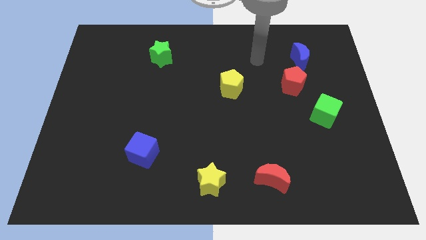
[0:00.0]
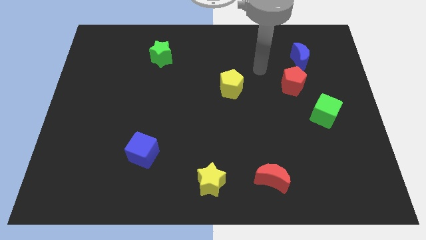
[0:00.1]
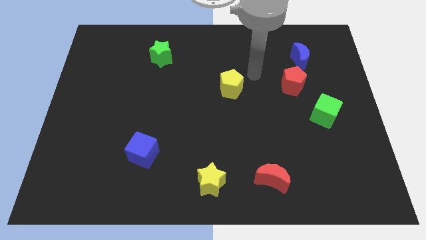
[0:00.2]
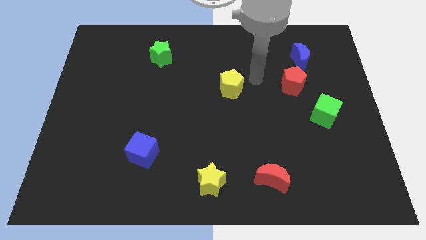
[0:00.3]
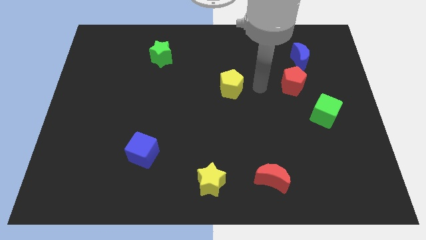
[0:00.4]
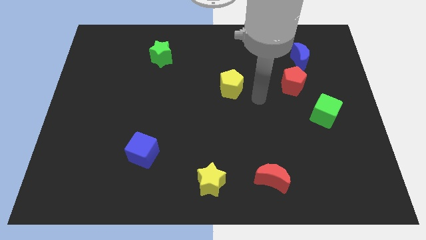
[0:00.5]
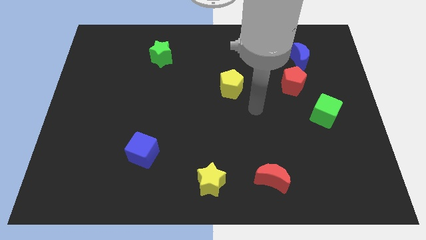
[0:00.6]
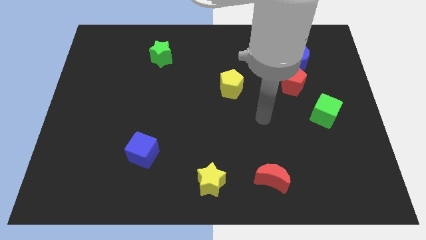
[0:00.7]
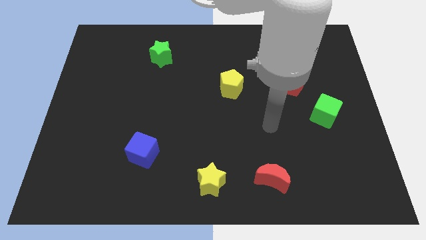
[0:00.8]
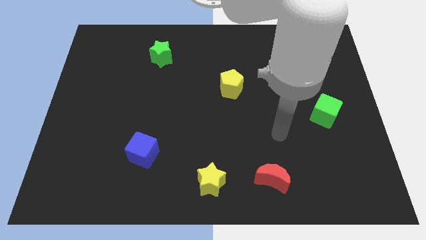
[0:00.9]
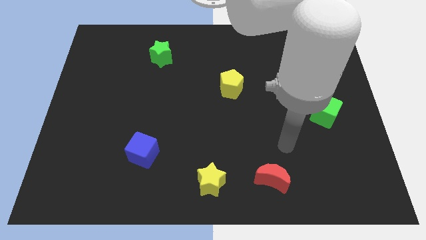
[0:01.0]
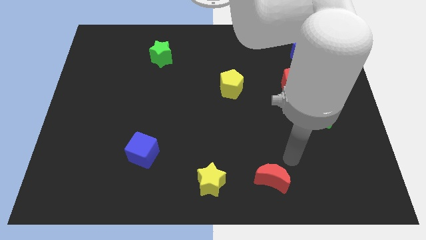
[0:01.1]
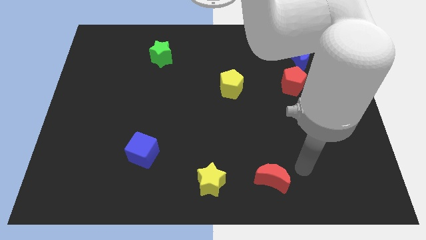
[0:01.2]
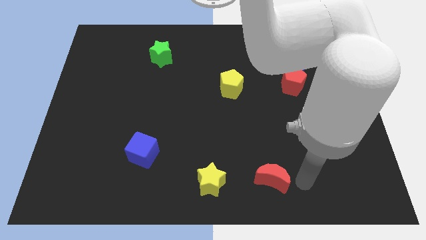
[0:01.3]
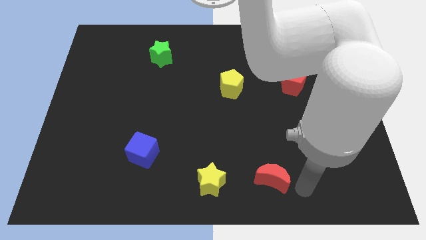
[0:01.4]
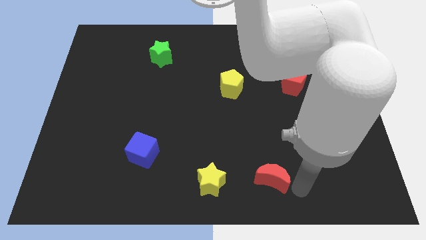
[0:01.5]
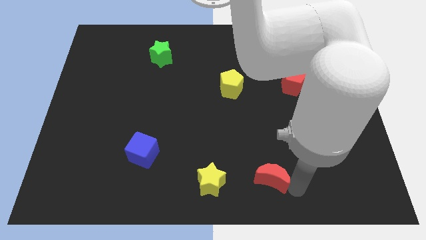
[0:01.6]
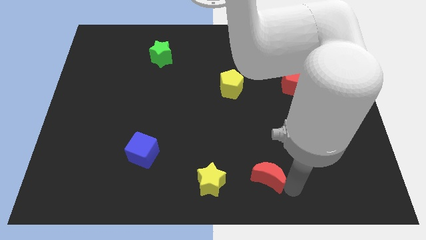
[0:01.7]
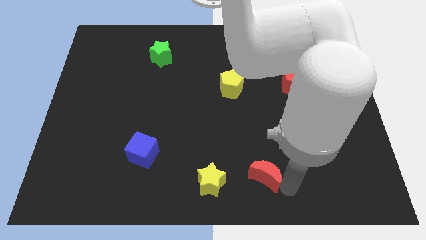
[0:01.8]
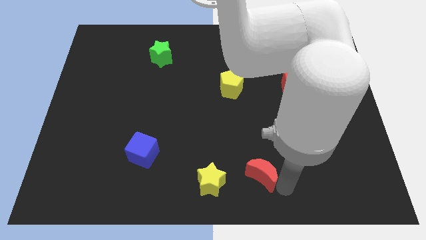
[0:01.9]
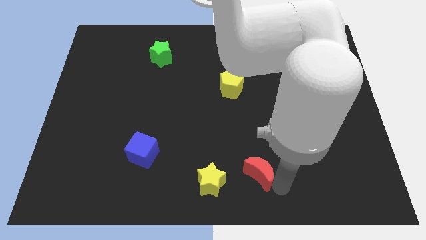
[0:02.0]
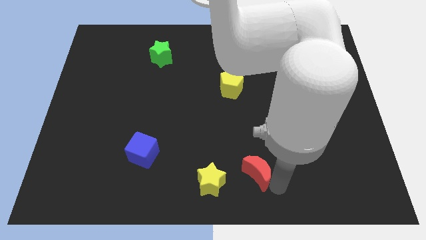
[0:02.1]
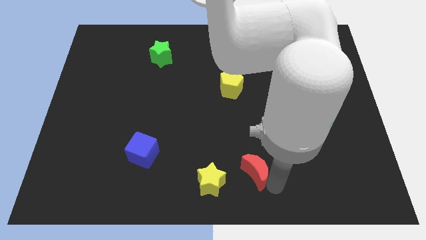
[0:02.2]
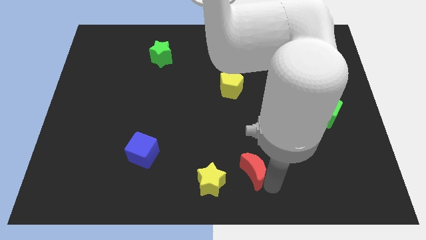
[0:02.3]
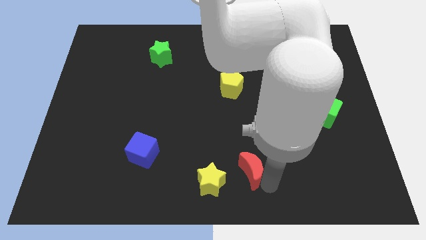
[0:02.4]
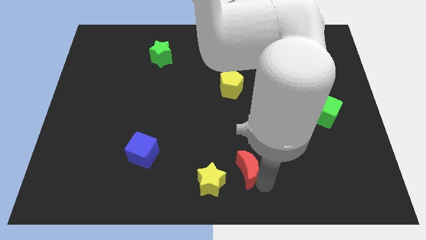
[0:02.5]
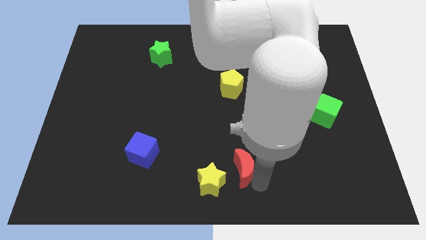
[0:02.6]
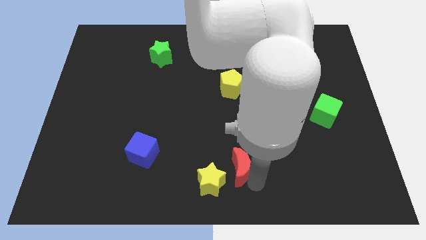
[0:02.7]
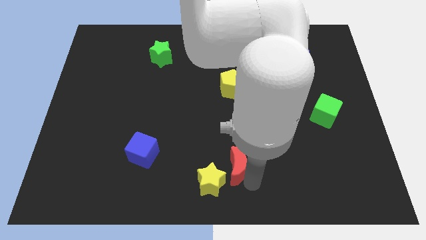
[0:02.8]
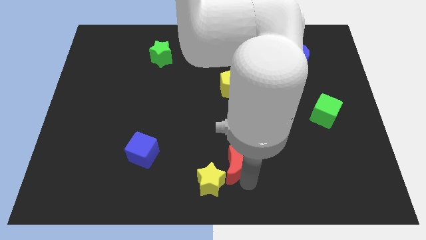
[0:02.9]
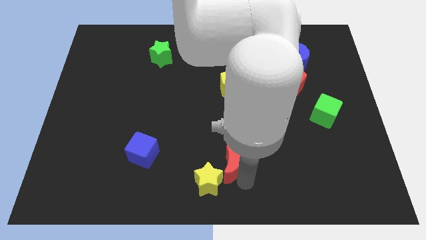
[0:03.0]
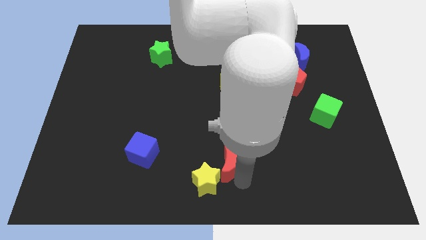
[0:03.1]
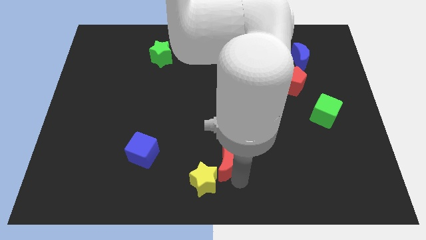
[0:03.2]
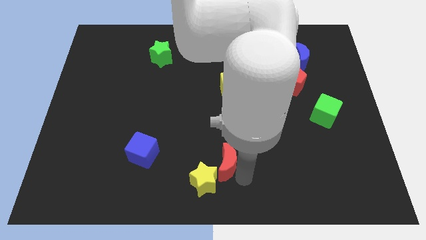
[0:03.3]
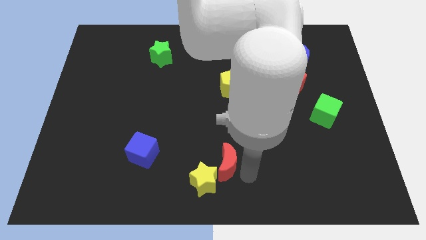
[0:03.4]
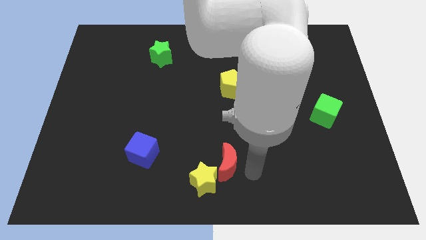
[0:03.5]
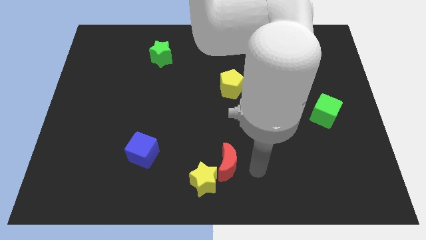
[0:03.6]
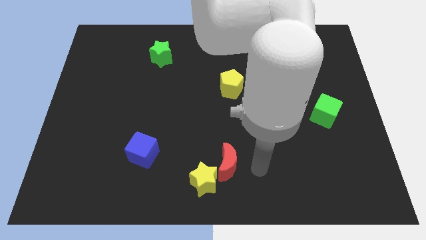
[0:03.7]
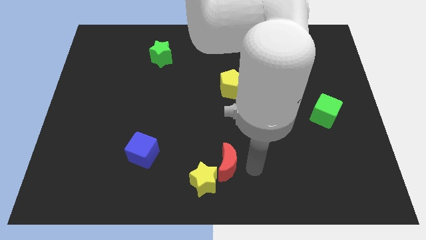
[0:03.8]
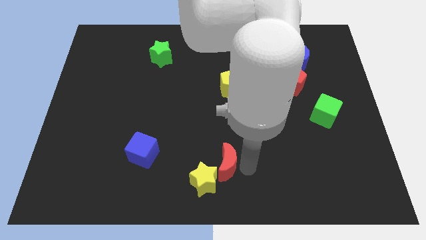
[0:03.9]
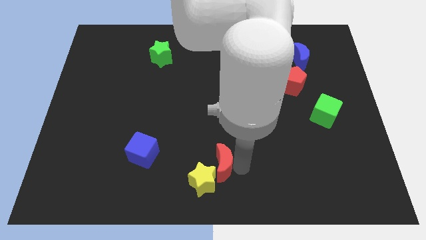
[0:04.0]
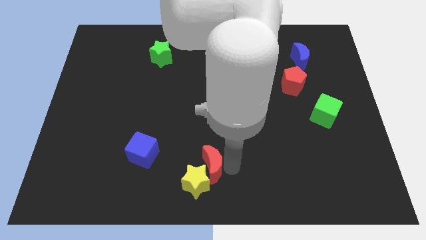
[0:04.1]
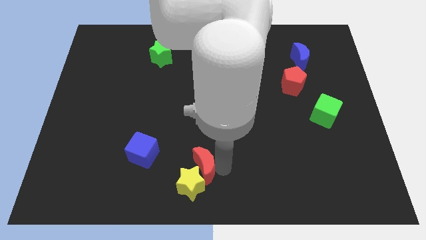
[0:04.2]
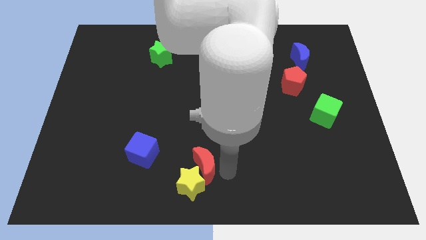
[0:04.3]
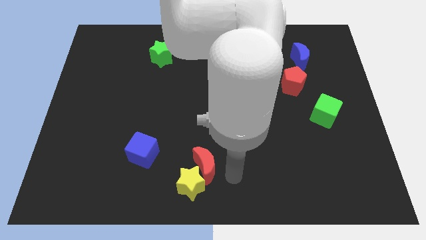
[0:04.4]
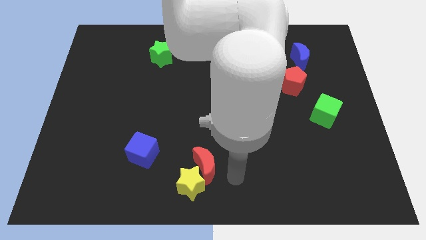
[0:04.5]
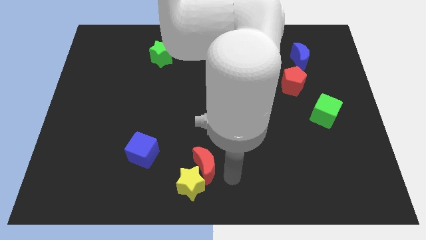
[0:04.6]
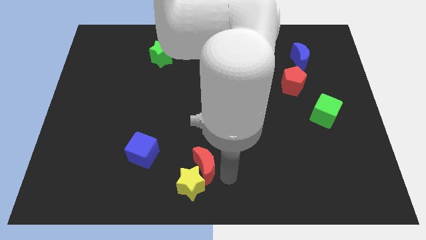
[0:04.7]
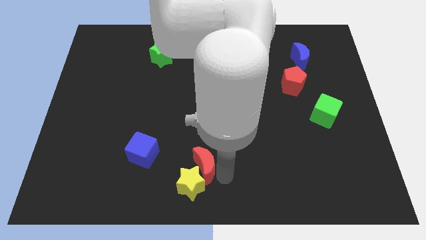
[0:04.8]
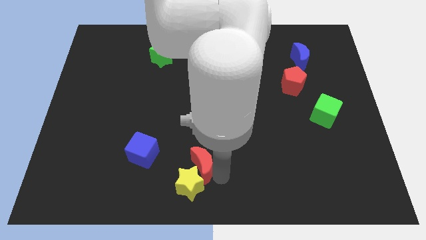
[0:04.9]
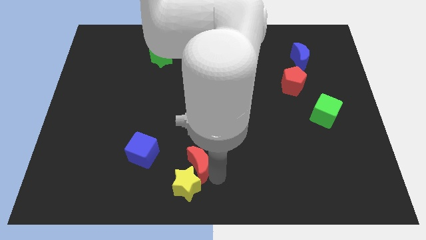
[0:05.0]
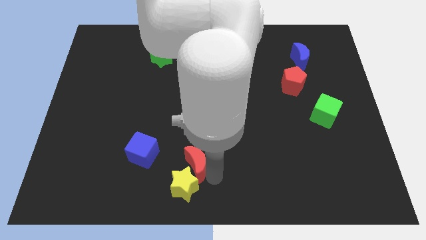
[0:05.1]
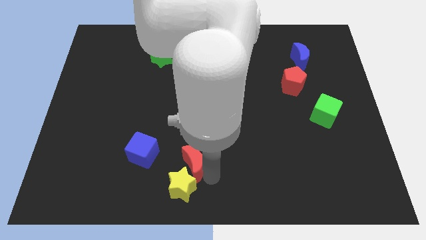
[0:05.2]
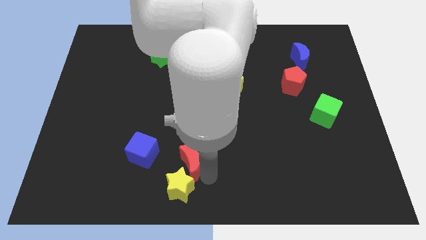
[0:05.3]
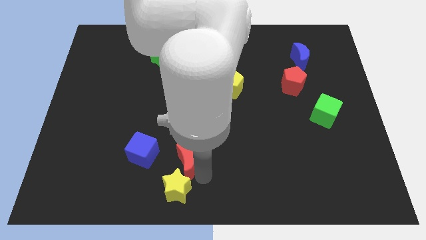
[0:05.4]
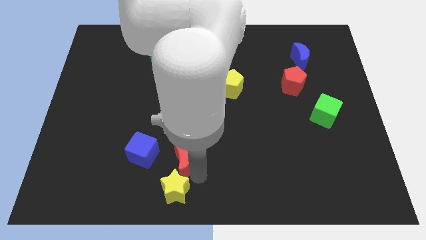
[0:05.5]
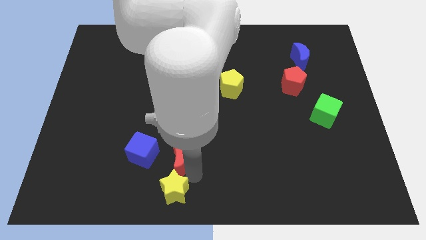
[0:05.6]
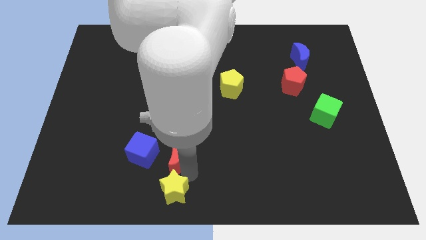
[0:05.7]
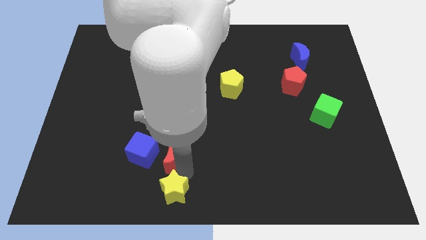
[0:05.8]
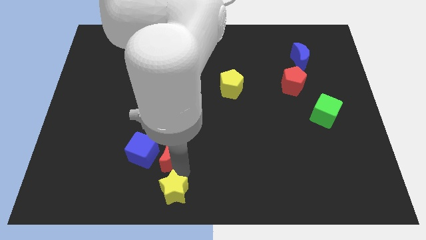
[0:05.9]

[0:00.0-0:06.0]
put the red moon to the blue cube
